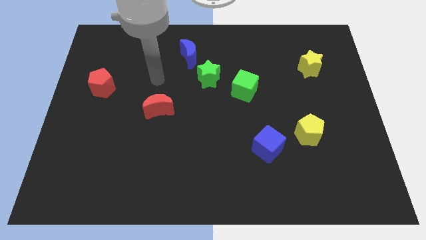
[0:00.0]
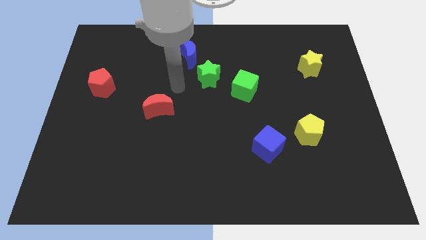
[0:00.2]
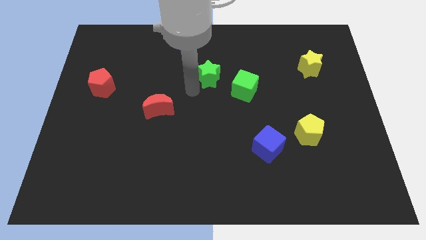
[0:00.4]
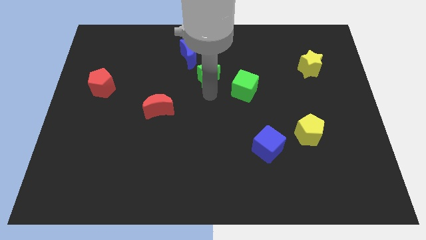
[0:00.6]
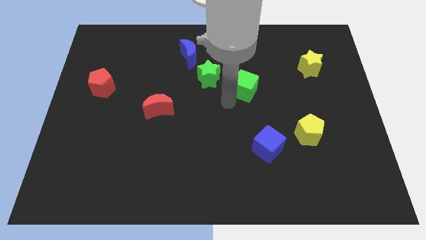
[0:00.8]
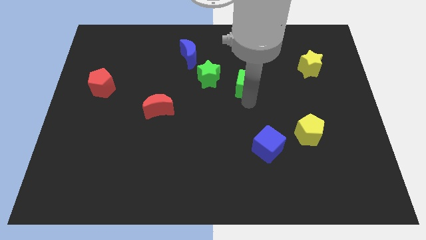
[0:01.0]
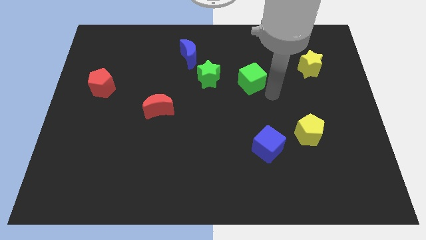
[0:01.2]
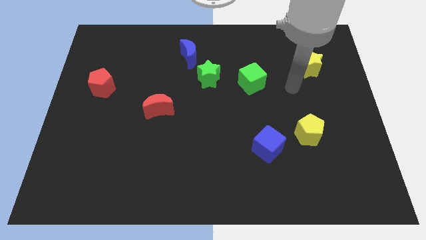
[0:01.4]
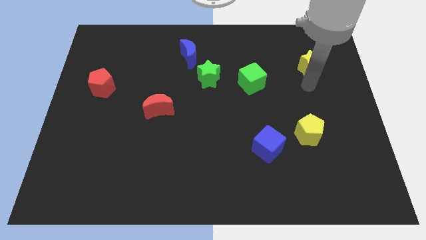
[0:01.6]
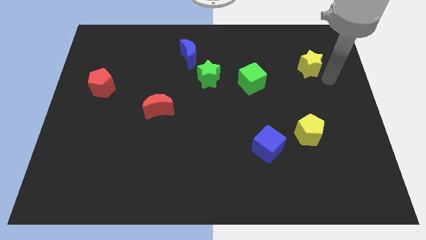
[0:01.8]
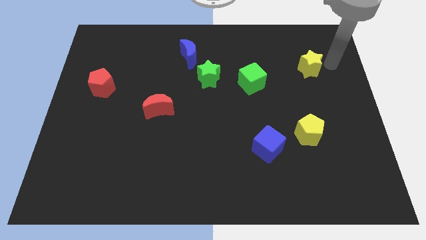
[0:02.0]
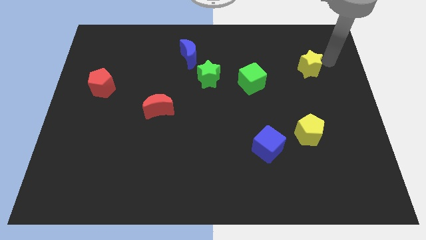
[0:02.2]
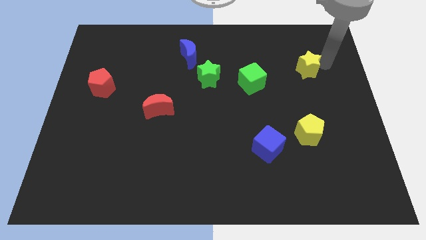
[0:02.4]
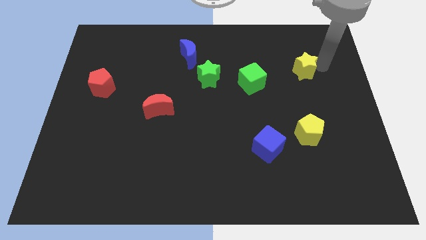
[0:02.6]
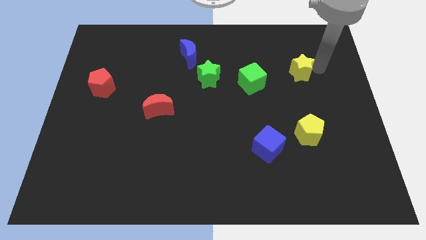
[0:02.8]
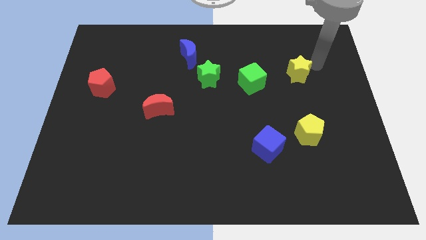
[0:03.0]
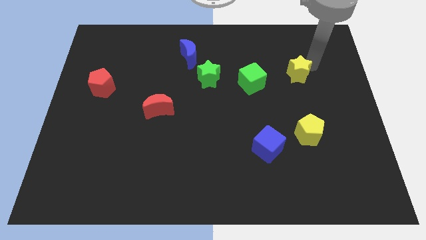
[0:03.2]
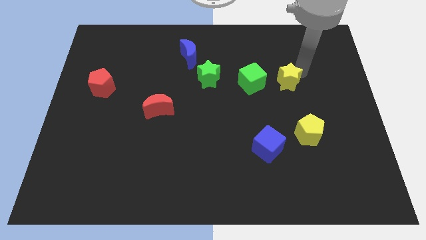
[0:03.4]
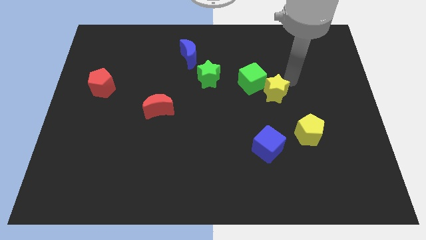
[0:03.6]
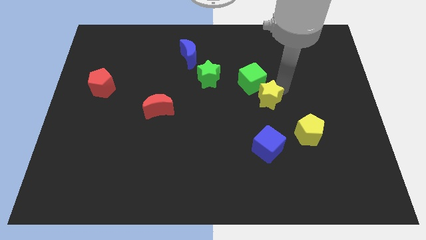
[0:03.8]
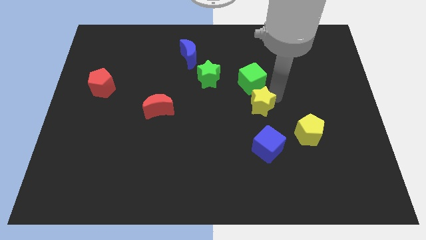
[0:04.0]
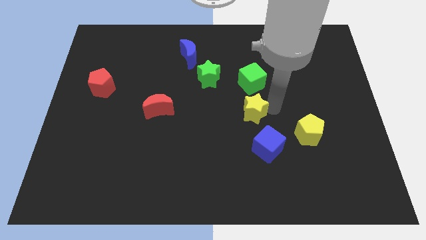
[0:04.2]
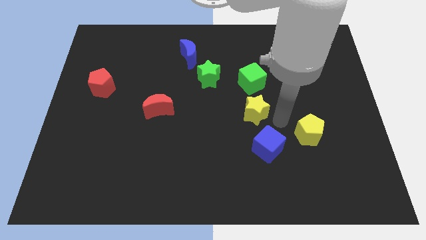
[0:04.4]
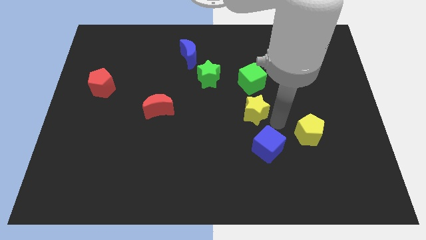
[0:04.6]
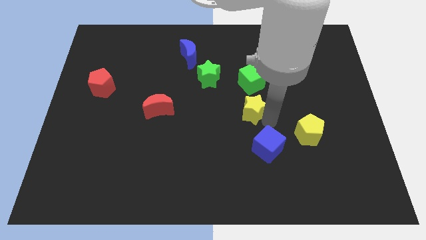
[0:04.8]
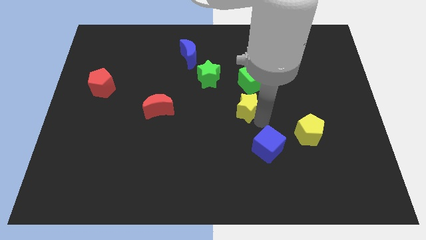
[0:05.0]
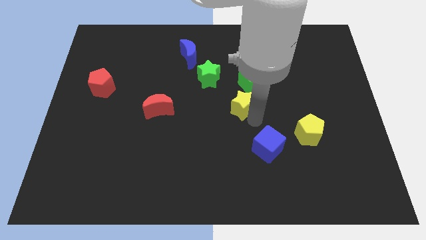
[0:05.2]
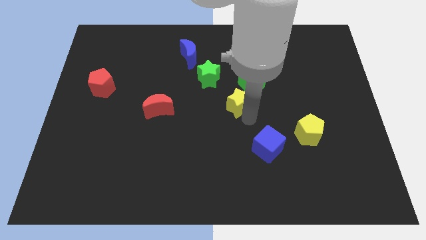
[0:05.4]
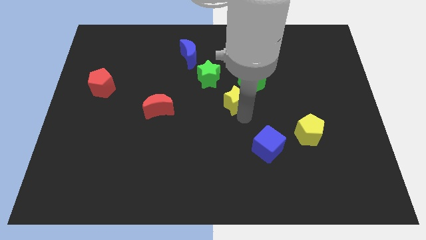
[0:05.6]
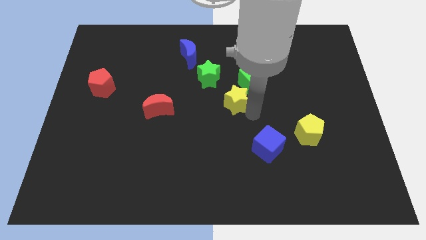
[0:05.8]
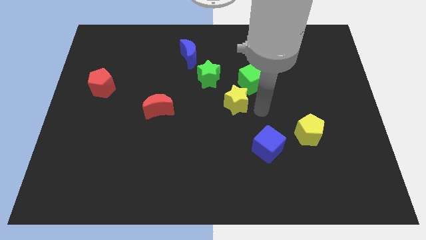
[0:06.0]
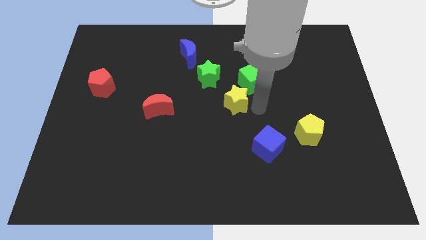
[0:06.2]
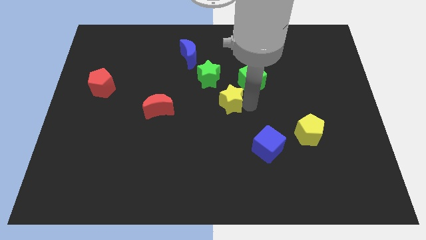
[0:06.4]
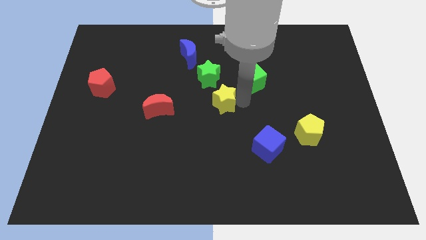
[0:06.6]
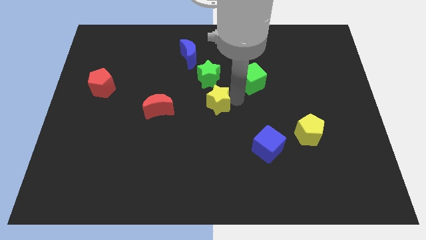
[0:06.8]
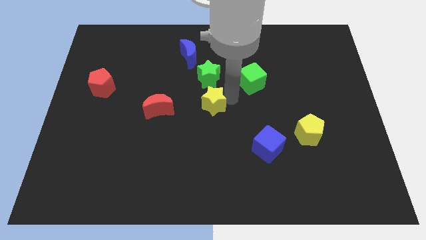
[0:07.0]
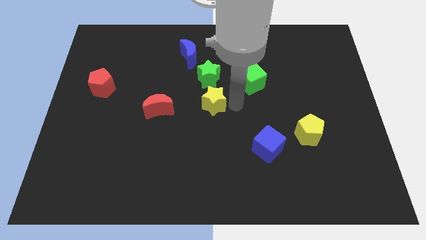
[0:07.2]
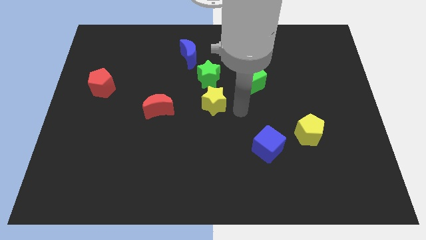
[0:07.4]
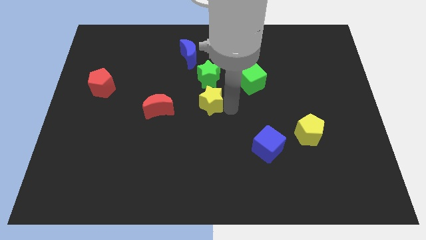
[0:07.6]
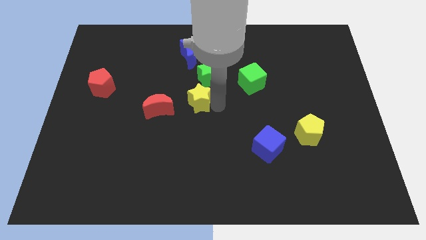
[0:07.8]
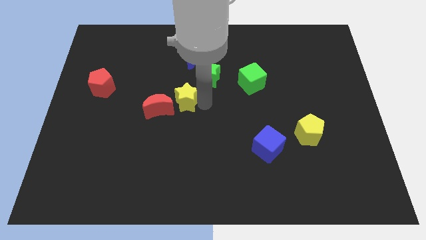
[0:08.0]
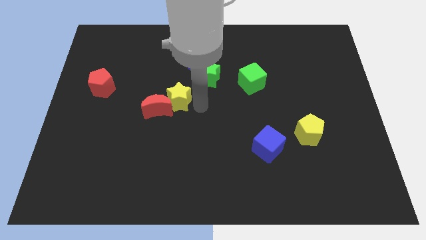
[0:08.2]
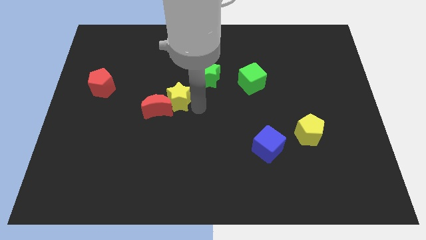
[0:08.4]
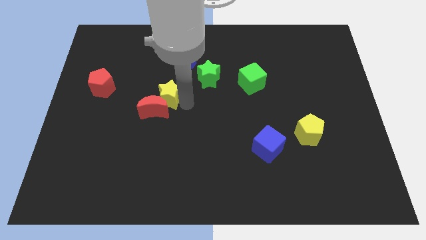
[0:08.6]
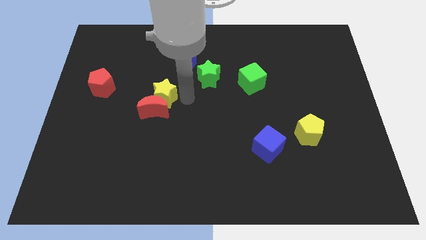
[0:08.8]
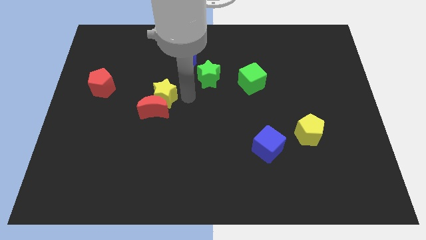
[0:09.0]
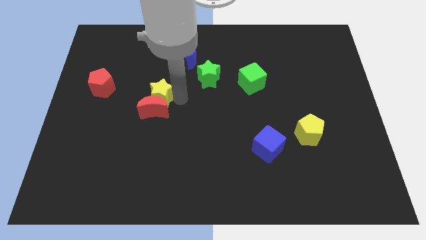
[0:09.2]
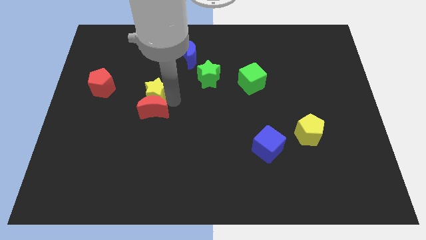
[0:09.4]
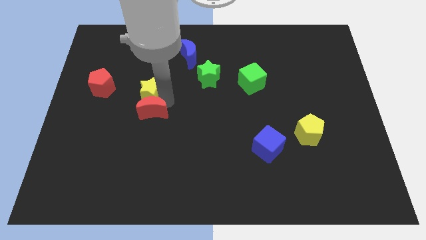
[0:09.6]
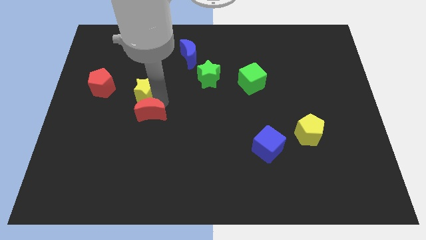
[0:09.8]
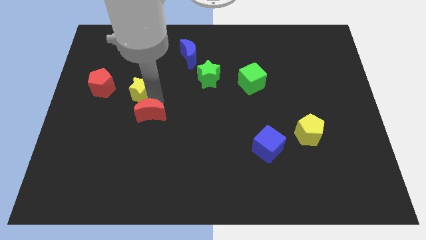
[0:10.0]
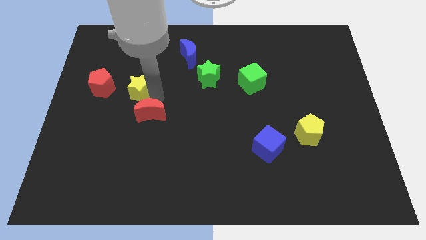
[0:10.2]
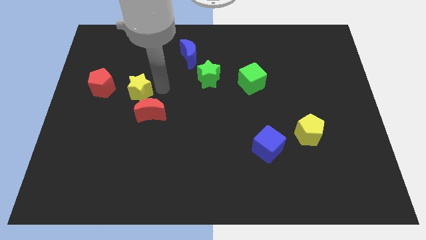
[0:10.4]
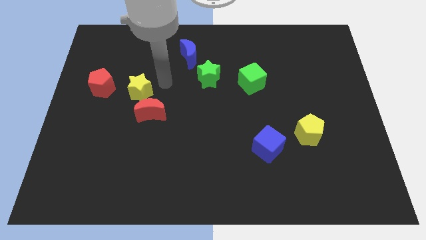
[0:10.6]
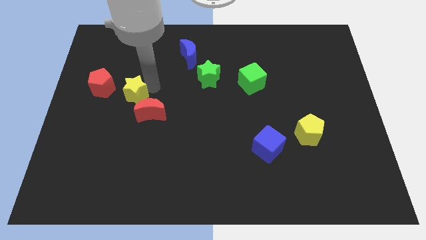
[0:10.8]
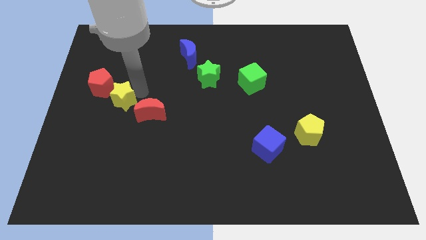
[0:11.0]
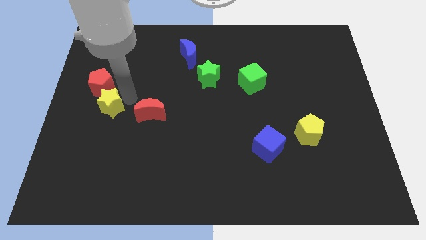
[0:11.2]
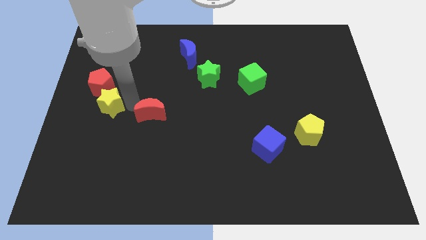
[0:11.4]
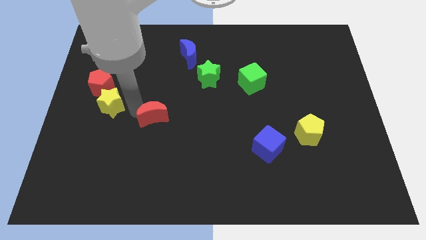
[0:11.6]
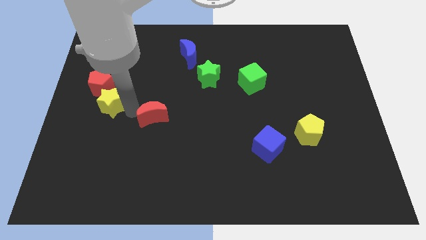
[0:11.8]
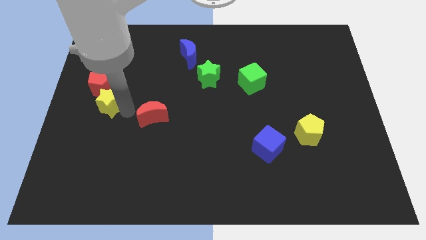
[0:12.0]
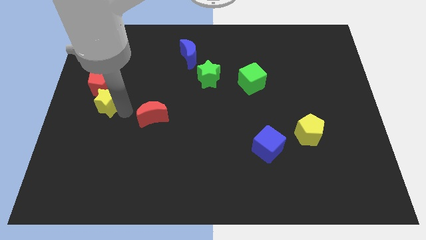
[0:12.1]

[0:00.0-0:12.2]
move the yellow star to the center left

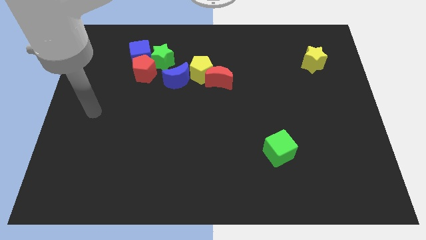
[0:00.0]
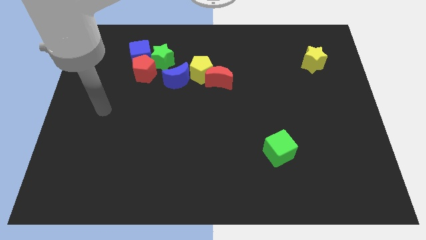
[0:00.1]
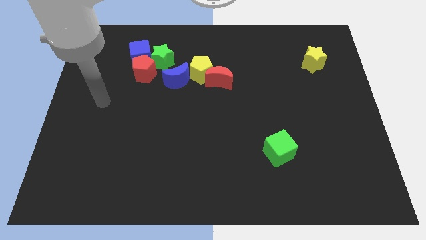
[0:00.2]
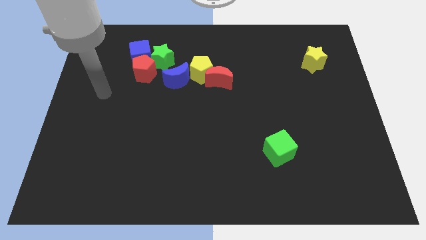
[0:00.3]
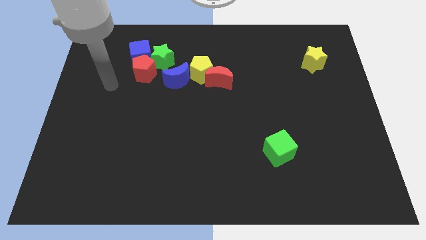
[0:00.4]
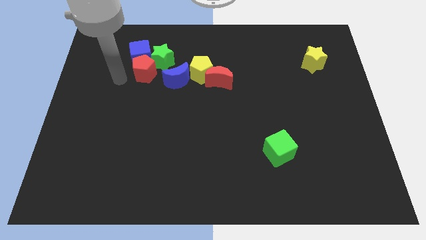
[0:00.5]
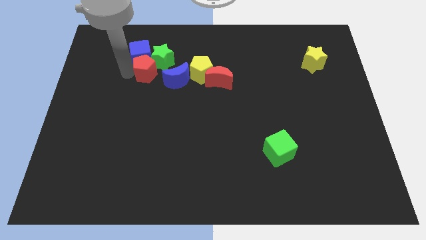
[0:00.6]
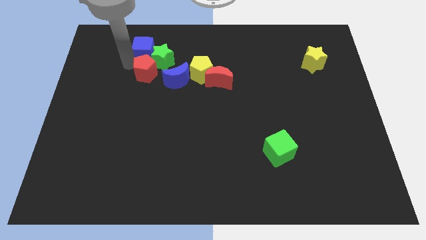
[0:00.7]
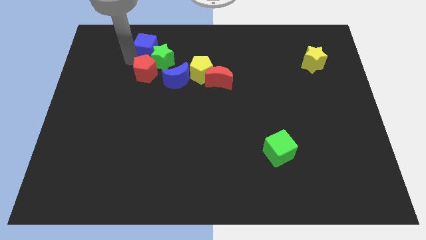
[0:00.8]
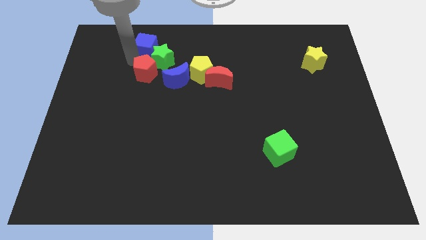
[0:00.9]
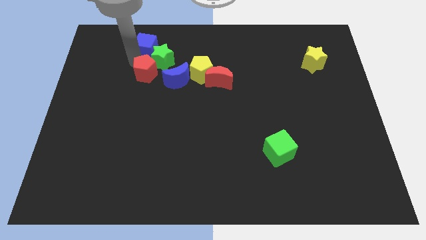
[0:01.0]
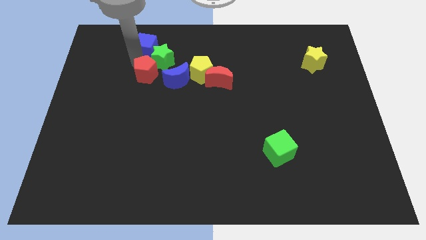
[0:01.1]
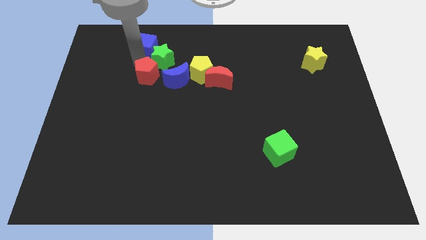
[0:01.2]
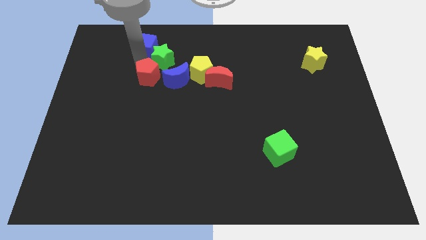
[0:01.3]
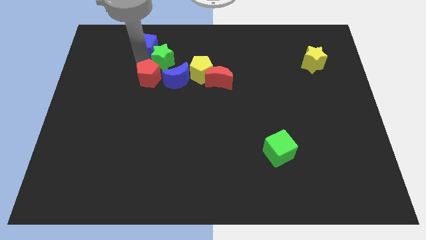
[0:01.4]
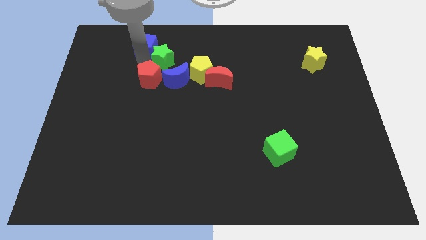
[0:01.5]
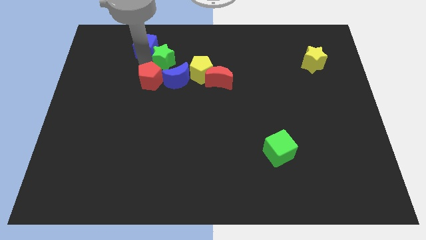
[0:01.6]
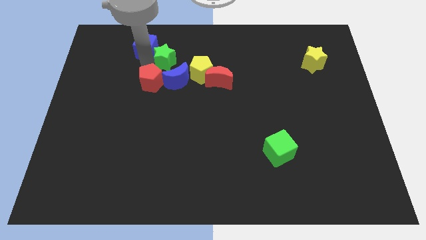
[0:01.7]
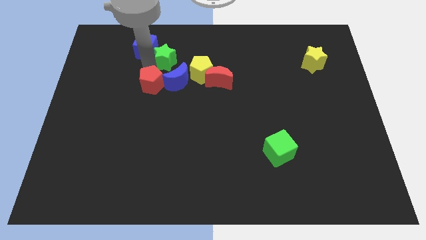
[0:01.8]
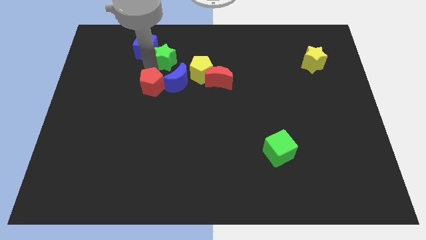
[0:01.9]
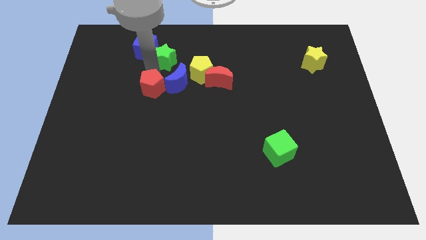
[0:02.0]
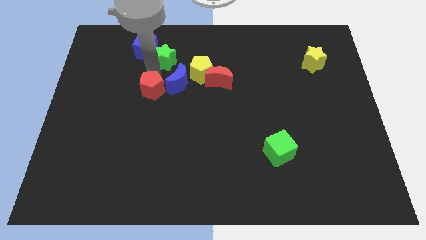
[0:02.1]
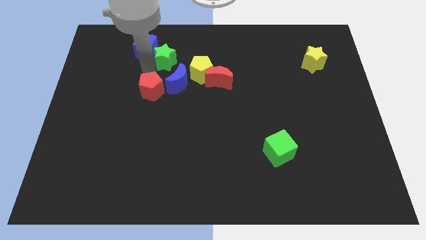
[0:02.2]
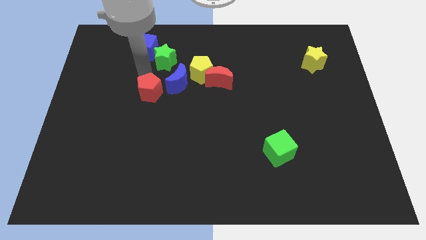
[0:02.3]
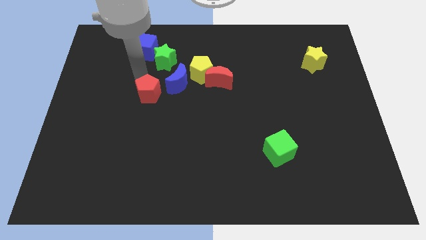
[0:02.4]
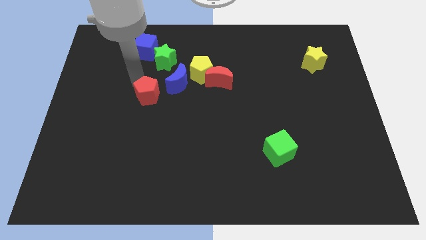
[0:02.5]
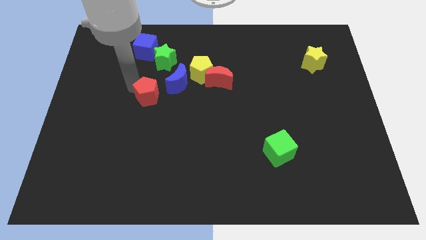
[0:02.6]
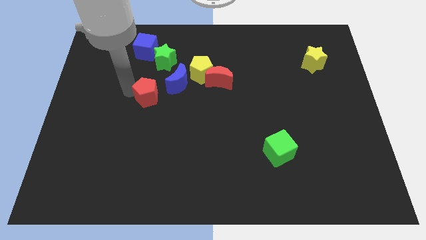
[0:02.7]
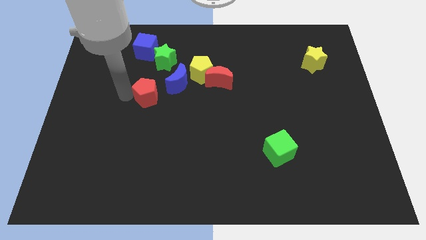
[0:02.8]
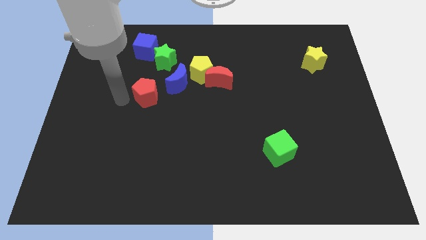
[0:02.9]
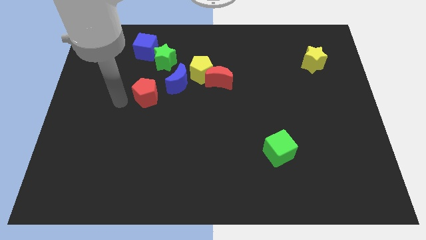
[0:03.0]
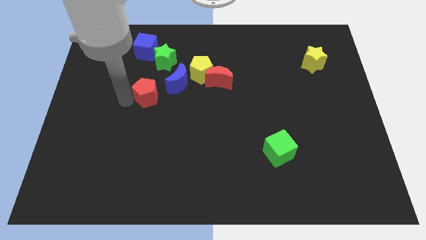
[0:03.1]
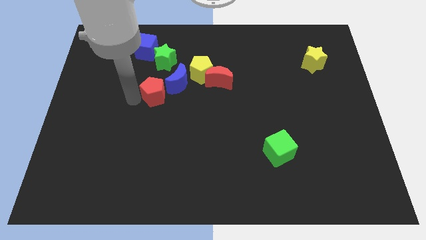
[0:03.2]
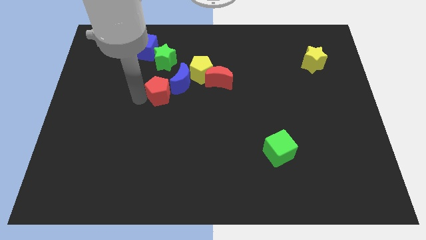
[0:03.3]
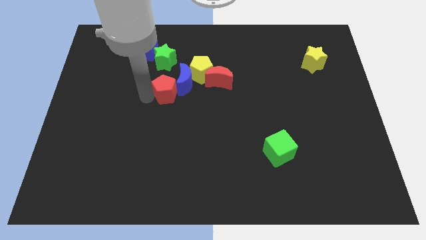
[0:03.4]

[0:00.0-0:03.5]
put the red pentagon to the center of the board
